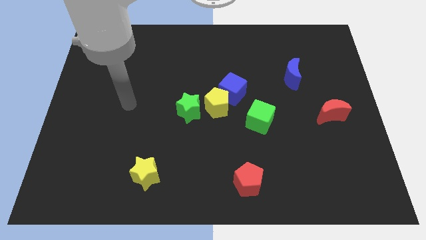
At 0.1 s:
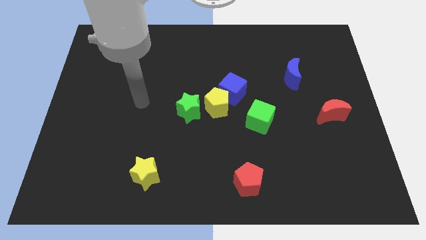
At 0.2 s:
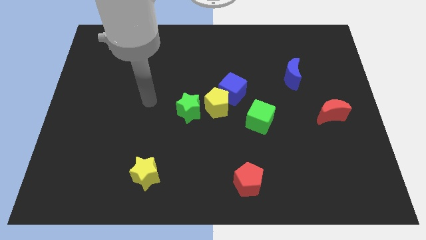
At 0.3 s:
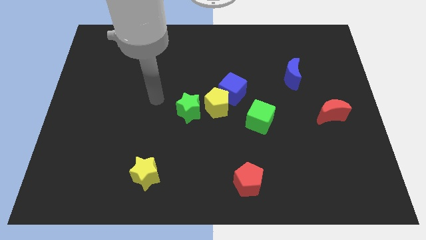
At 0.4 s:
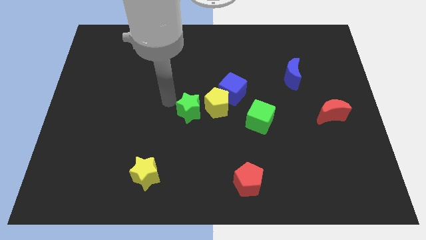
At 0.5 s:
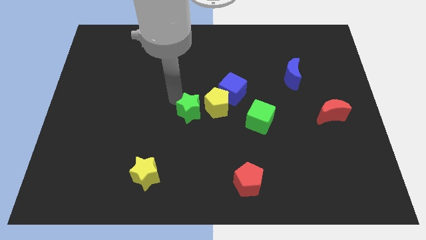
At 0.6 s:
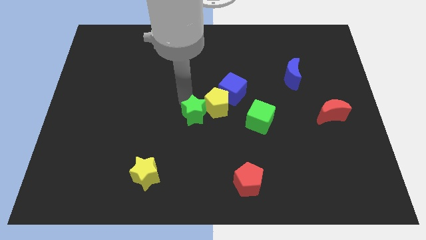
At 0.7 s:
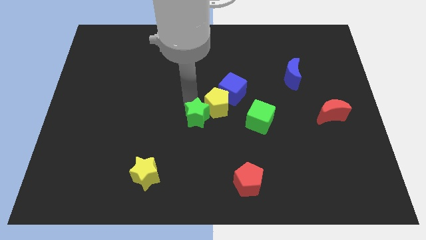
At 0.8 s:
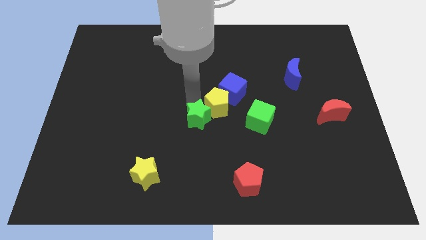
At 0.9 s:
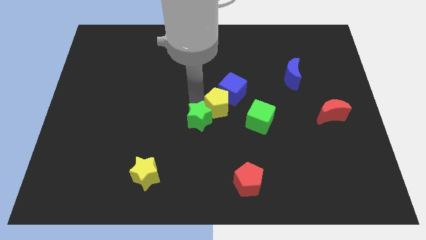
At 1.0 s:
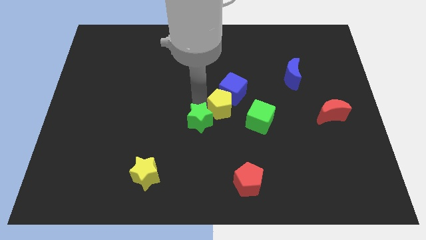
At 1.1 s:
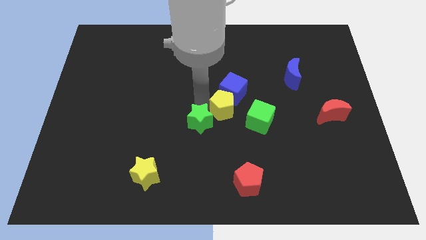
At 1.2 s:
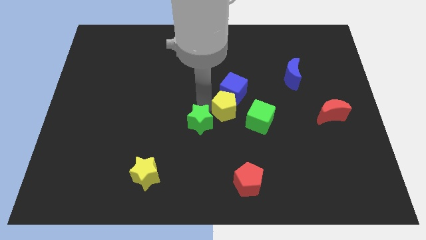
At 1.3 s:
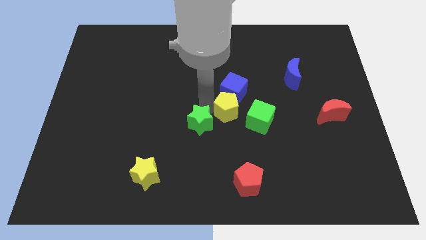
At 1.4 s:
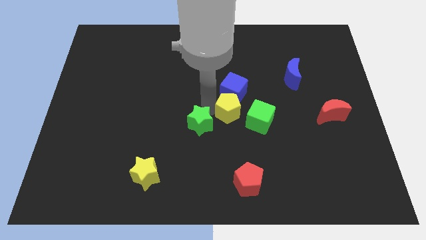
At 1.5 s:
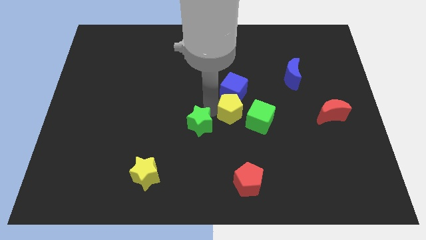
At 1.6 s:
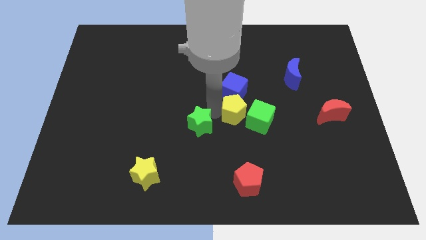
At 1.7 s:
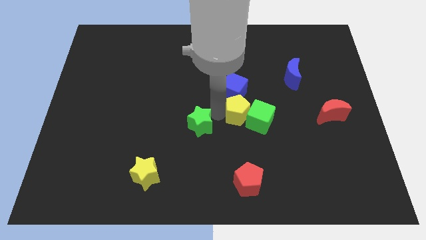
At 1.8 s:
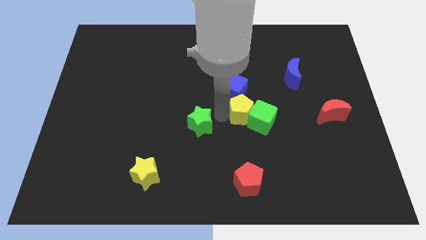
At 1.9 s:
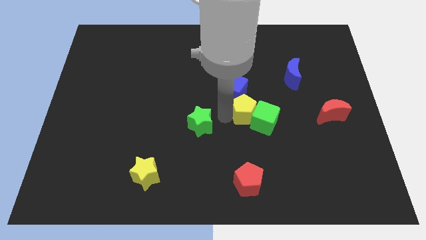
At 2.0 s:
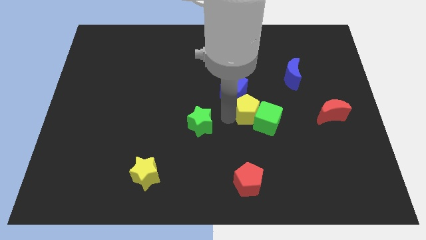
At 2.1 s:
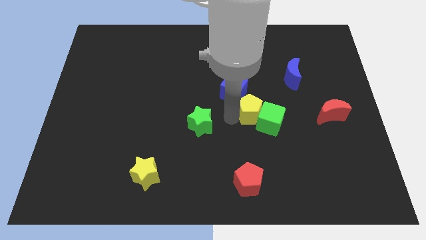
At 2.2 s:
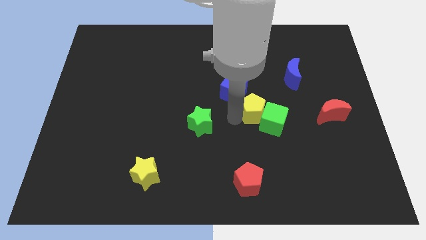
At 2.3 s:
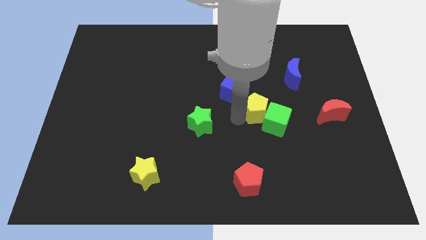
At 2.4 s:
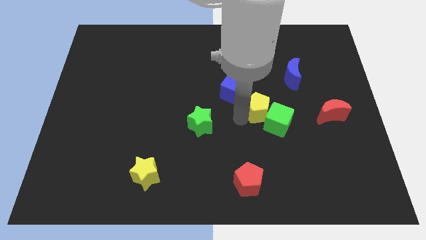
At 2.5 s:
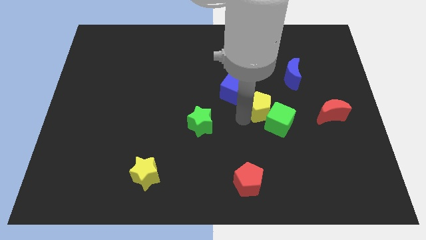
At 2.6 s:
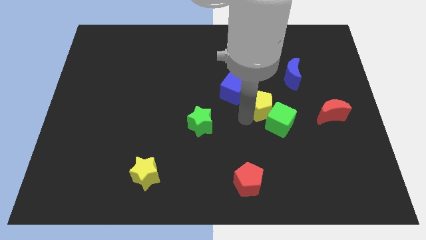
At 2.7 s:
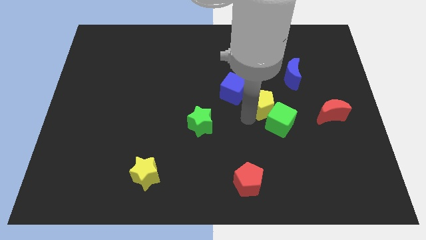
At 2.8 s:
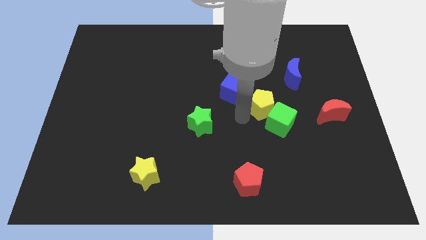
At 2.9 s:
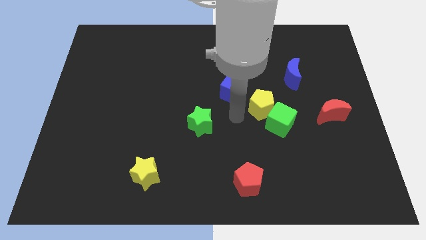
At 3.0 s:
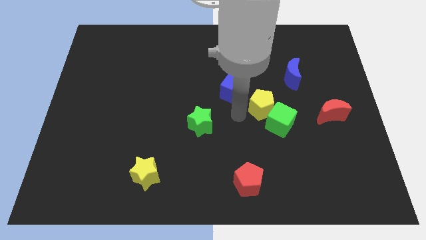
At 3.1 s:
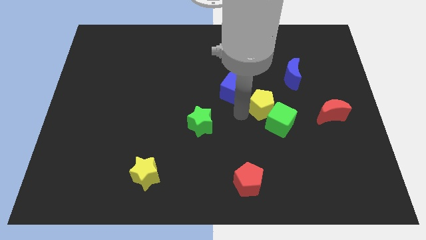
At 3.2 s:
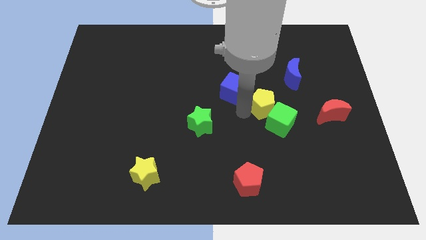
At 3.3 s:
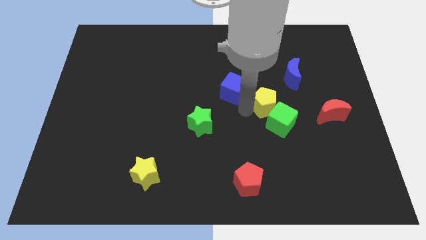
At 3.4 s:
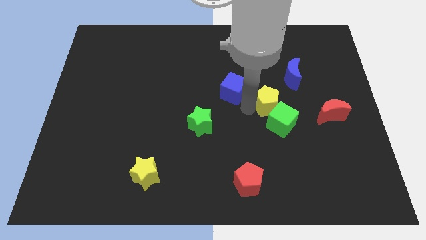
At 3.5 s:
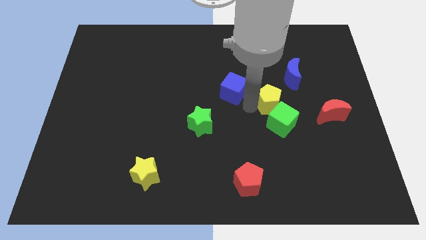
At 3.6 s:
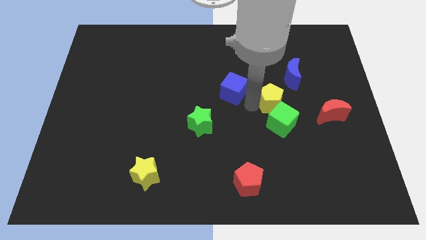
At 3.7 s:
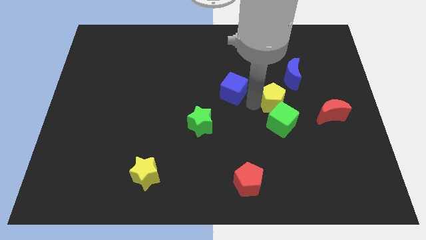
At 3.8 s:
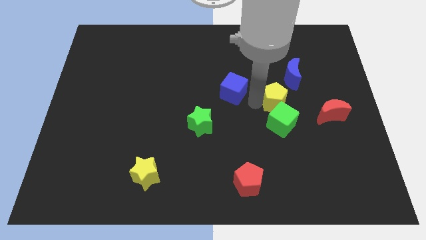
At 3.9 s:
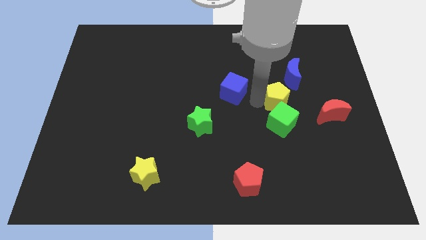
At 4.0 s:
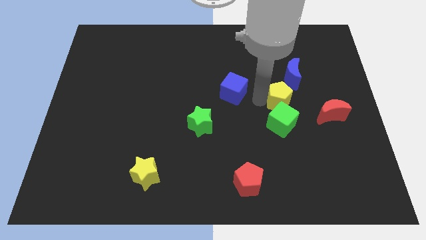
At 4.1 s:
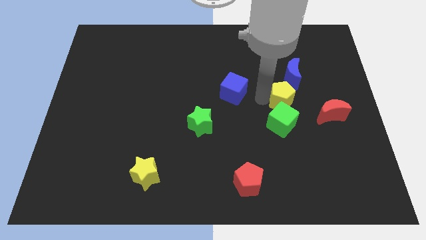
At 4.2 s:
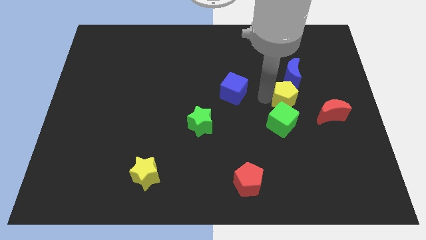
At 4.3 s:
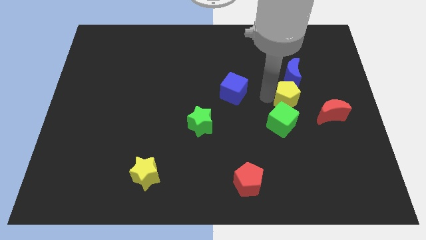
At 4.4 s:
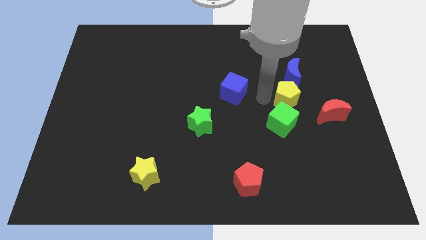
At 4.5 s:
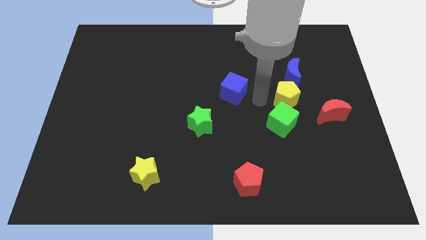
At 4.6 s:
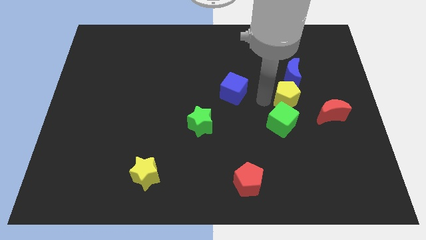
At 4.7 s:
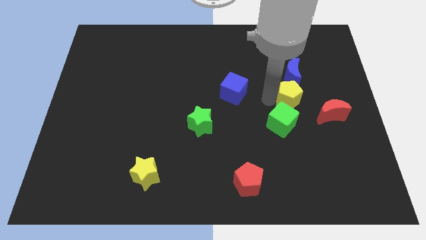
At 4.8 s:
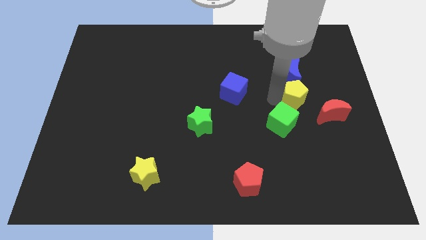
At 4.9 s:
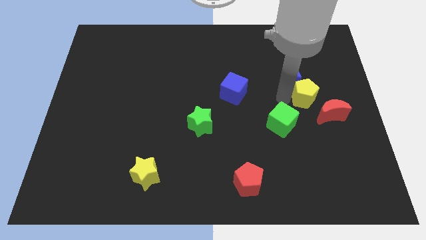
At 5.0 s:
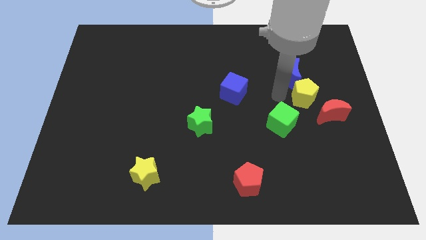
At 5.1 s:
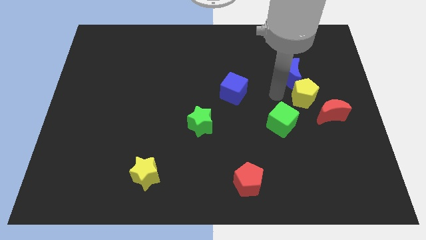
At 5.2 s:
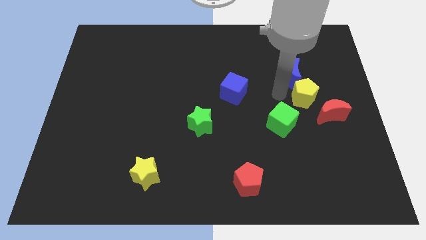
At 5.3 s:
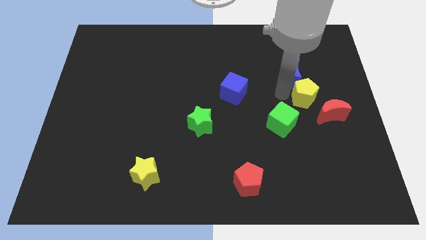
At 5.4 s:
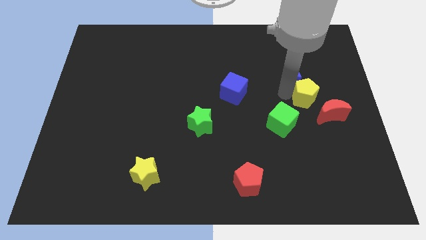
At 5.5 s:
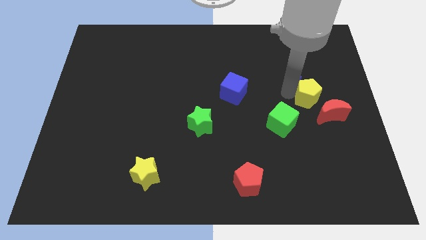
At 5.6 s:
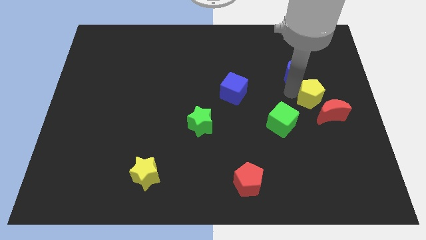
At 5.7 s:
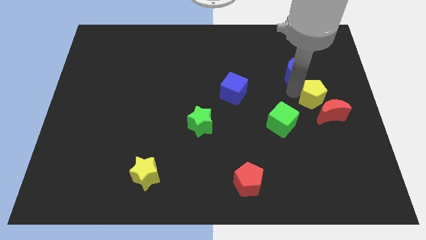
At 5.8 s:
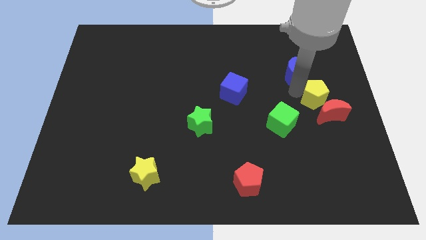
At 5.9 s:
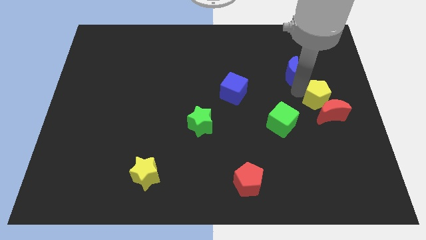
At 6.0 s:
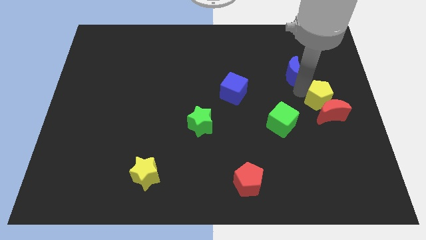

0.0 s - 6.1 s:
move the yellow pentagon to the center right
